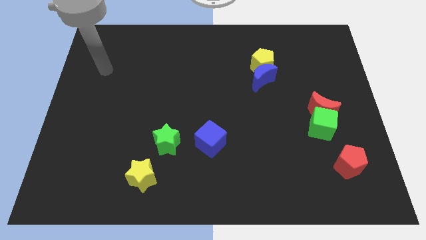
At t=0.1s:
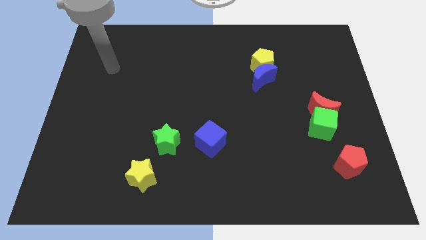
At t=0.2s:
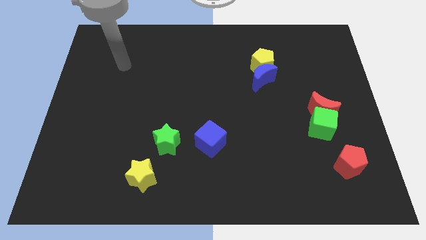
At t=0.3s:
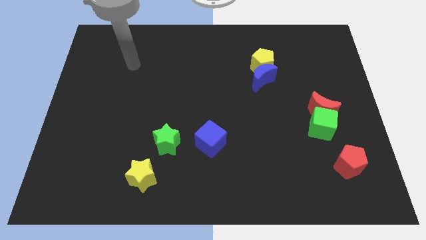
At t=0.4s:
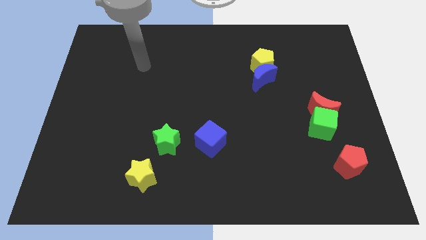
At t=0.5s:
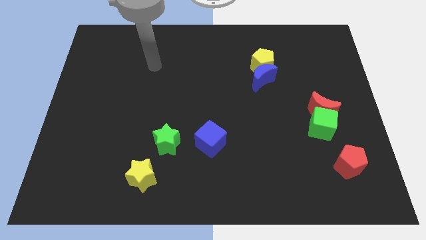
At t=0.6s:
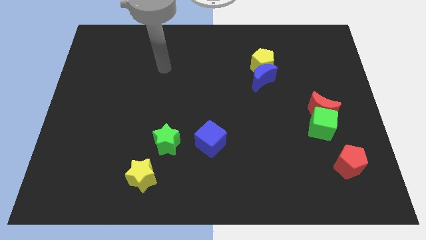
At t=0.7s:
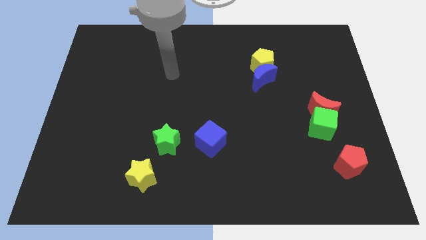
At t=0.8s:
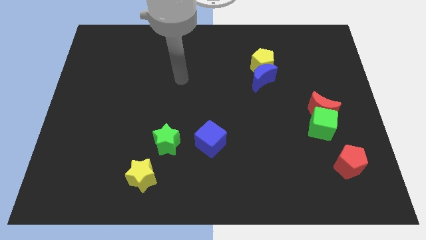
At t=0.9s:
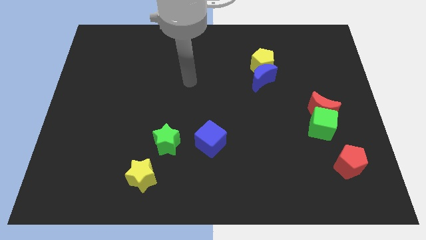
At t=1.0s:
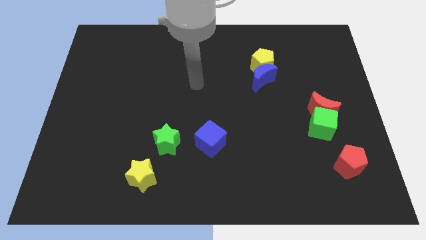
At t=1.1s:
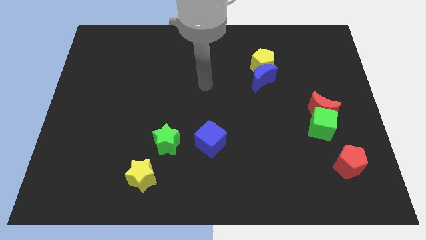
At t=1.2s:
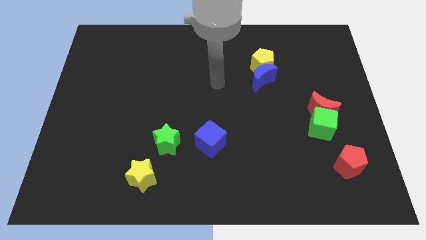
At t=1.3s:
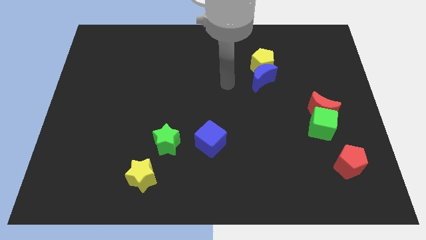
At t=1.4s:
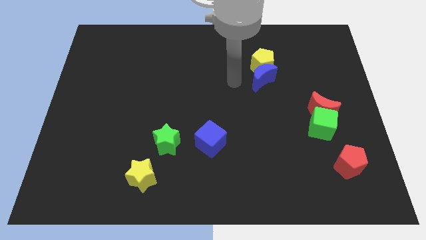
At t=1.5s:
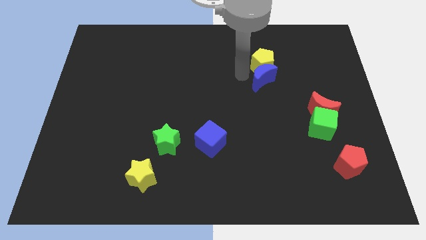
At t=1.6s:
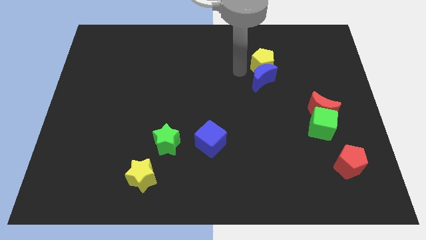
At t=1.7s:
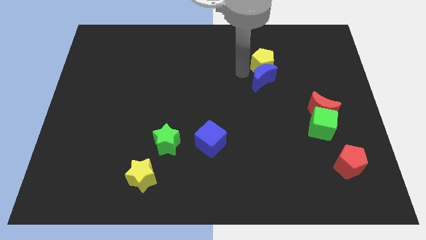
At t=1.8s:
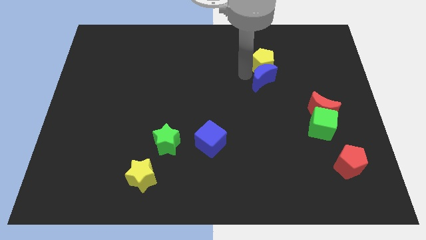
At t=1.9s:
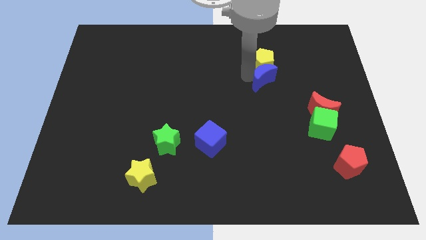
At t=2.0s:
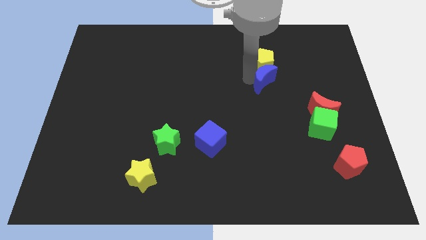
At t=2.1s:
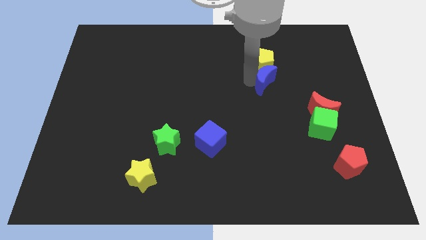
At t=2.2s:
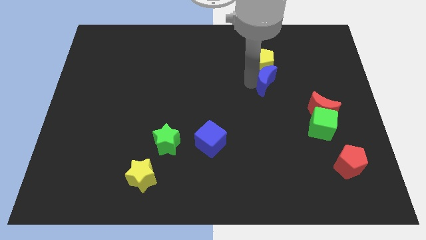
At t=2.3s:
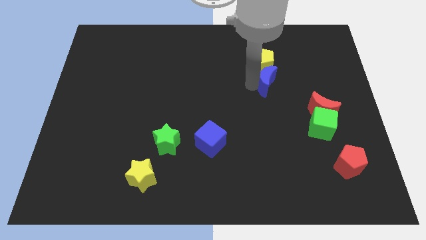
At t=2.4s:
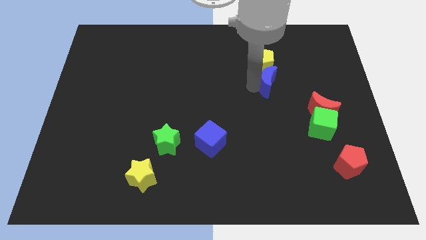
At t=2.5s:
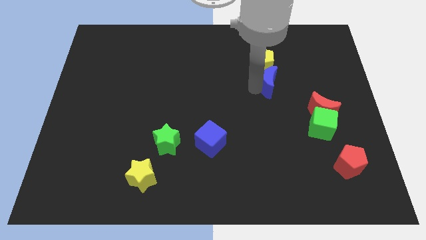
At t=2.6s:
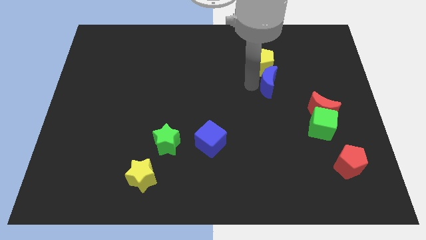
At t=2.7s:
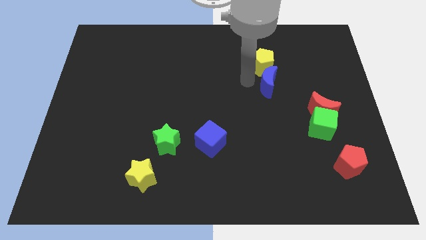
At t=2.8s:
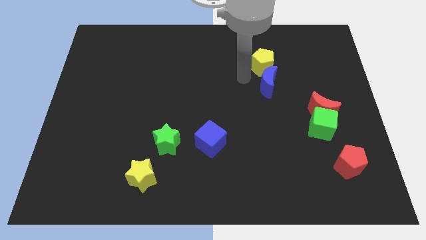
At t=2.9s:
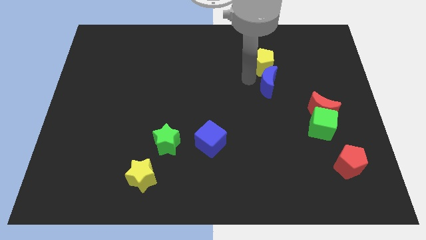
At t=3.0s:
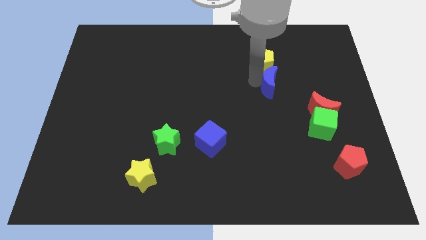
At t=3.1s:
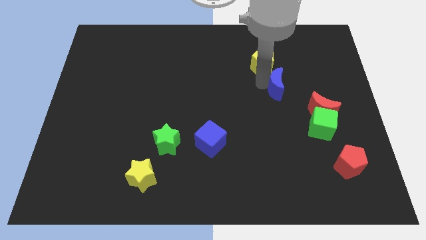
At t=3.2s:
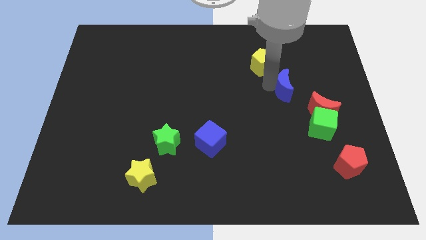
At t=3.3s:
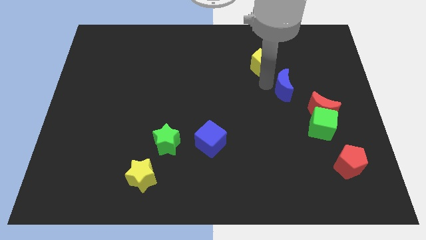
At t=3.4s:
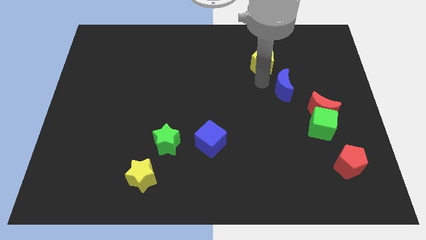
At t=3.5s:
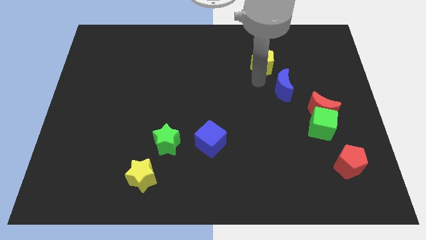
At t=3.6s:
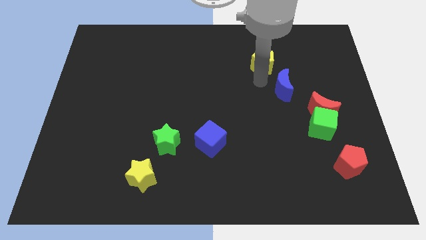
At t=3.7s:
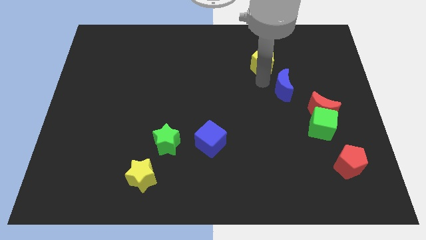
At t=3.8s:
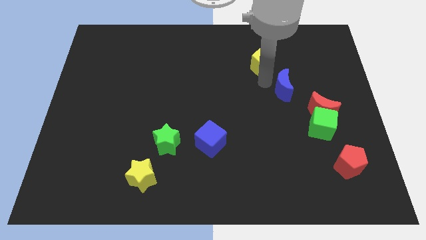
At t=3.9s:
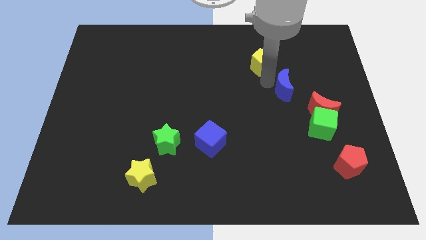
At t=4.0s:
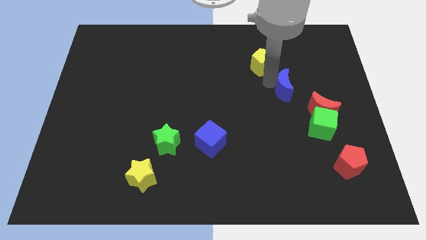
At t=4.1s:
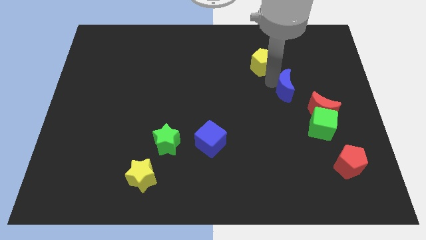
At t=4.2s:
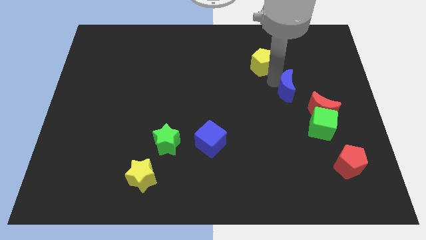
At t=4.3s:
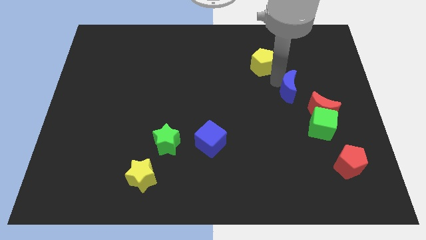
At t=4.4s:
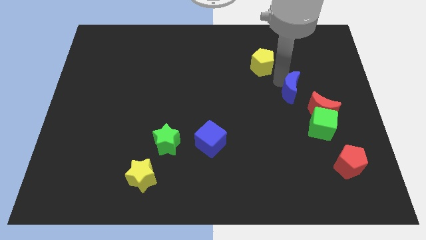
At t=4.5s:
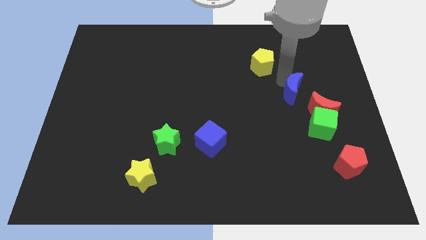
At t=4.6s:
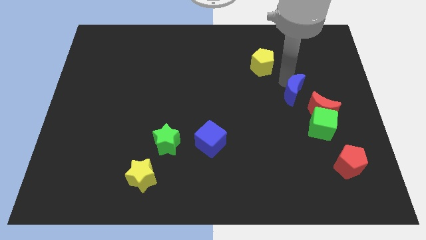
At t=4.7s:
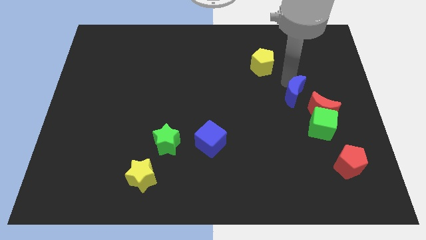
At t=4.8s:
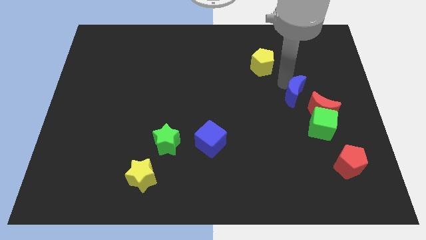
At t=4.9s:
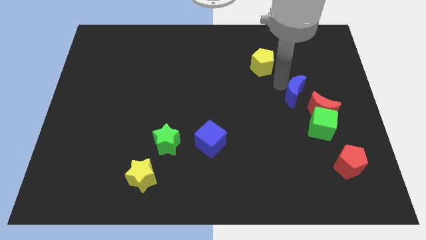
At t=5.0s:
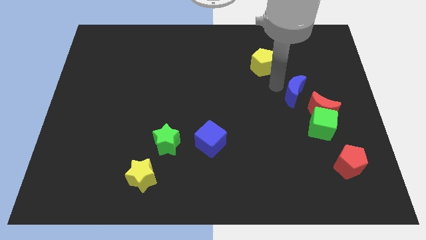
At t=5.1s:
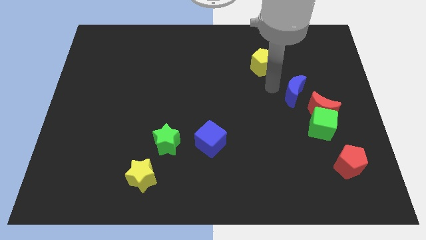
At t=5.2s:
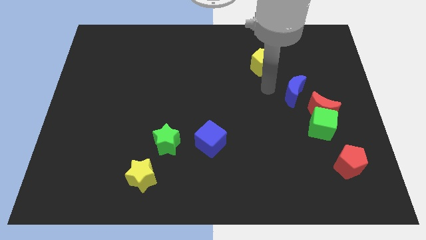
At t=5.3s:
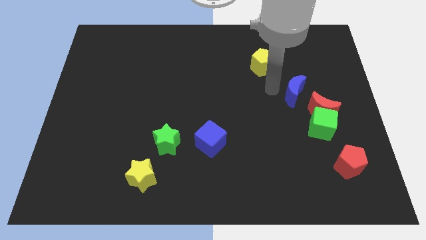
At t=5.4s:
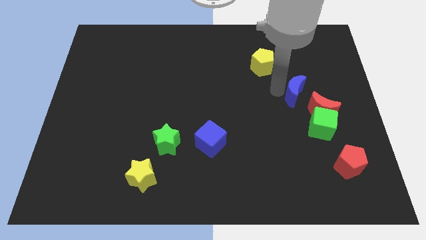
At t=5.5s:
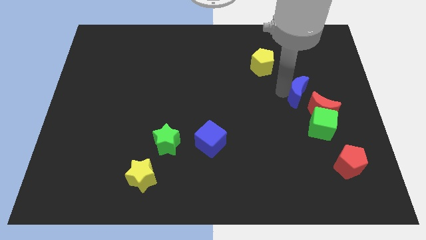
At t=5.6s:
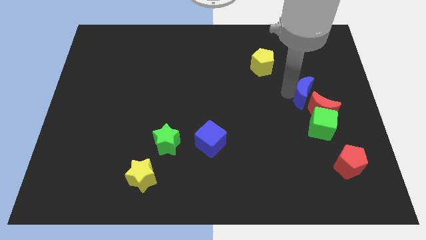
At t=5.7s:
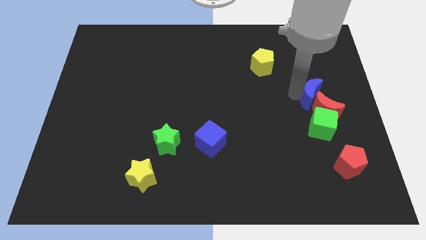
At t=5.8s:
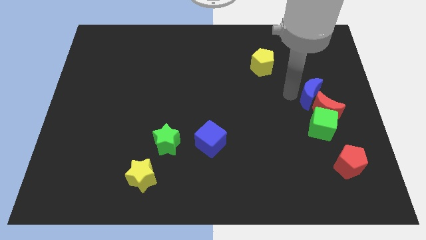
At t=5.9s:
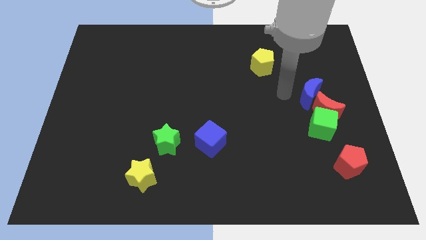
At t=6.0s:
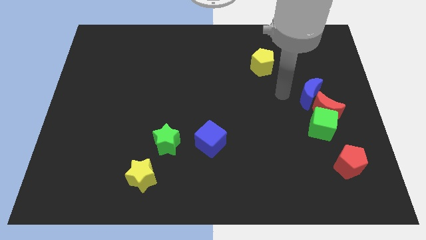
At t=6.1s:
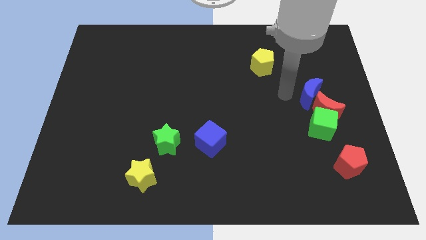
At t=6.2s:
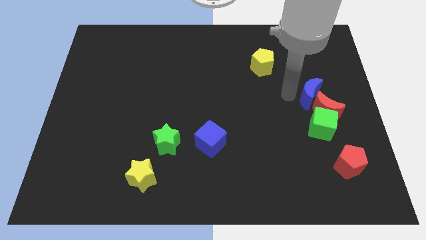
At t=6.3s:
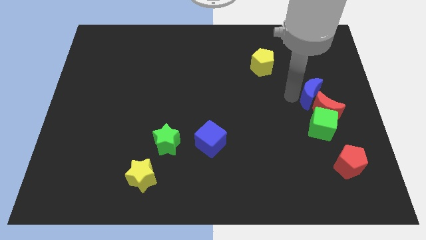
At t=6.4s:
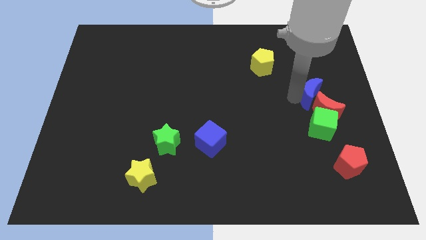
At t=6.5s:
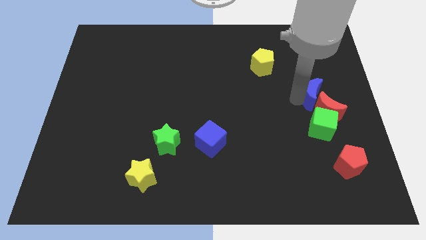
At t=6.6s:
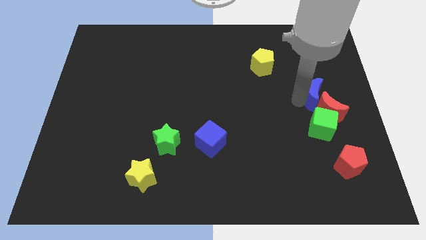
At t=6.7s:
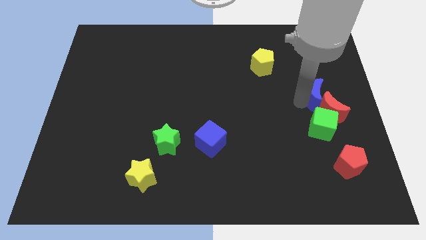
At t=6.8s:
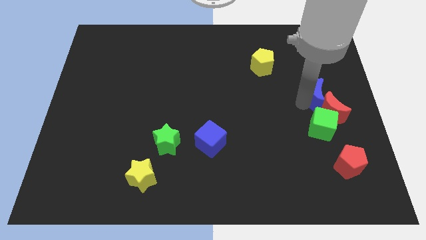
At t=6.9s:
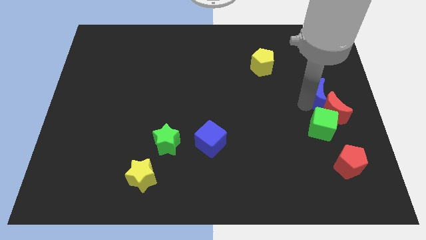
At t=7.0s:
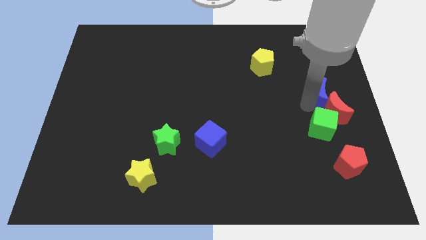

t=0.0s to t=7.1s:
slide the blue moon to the right side of the board
